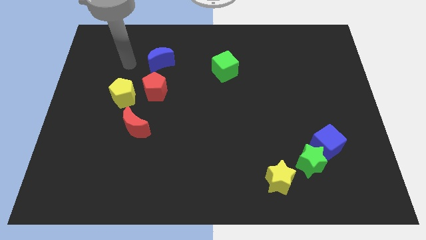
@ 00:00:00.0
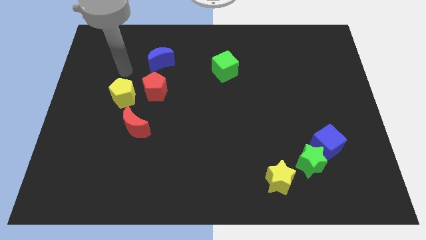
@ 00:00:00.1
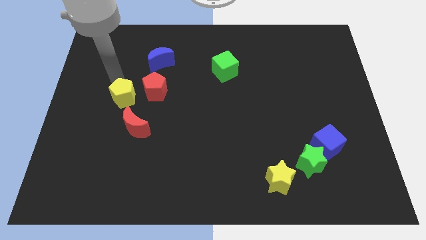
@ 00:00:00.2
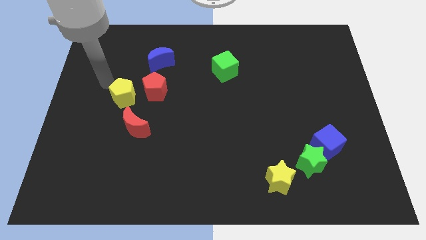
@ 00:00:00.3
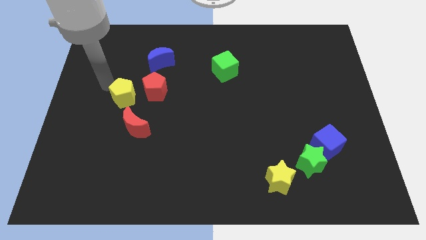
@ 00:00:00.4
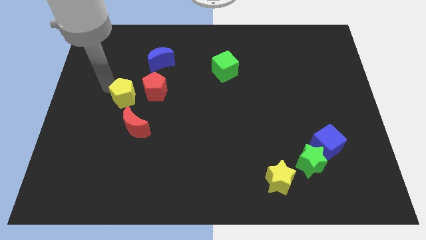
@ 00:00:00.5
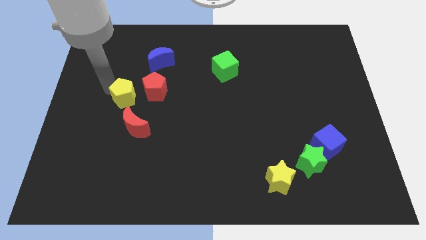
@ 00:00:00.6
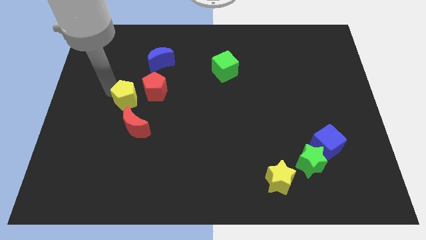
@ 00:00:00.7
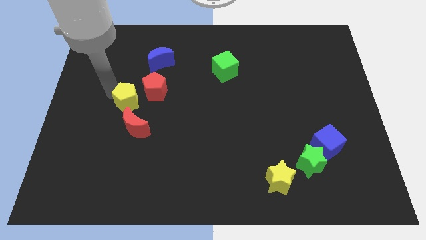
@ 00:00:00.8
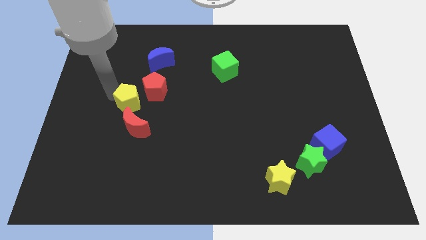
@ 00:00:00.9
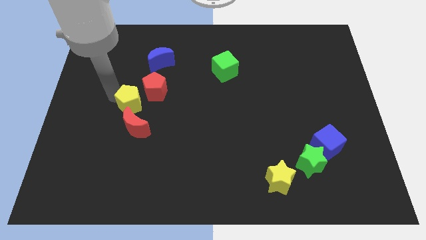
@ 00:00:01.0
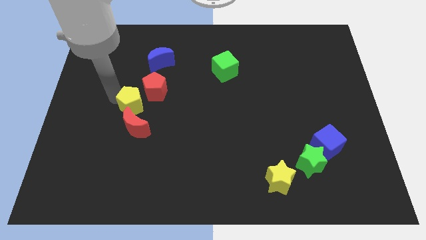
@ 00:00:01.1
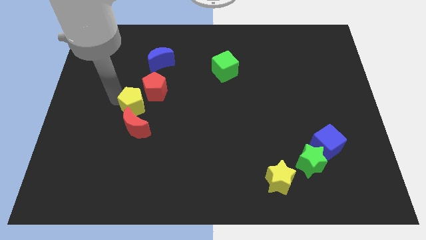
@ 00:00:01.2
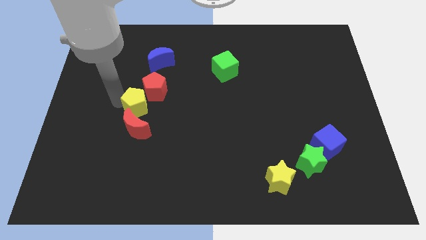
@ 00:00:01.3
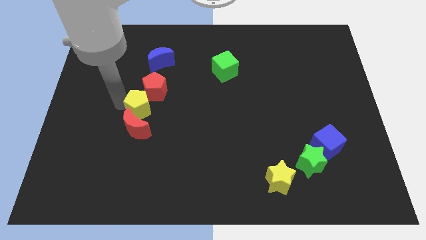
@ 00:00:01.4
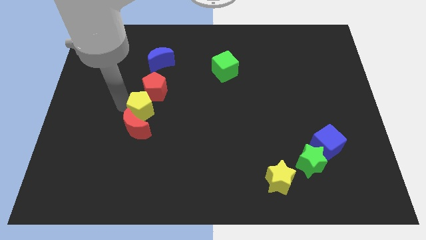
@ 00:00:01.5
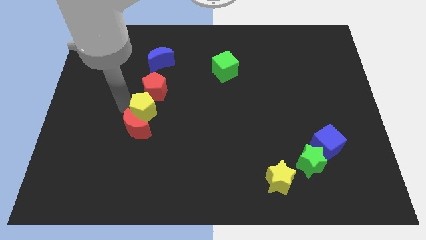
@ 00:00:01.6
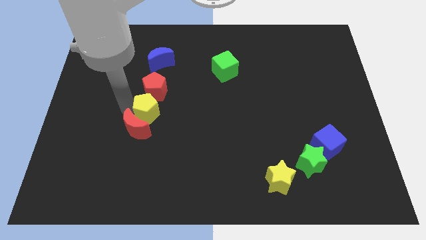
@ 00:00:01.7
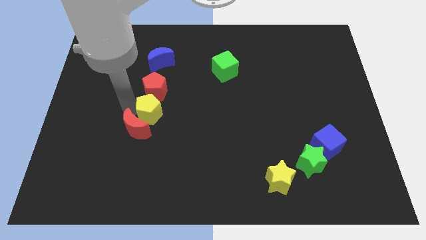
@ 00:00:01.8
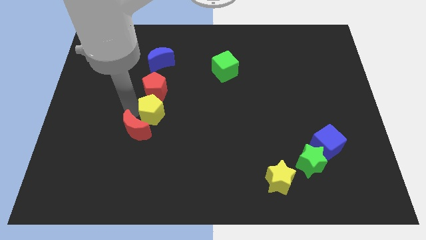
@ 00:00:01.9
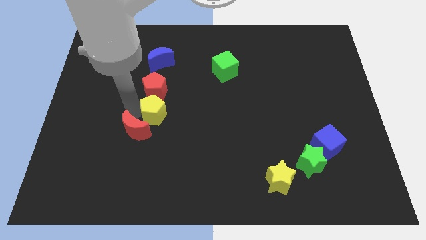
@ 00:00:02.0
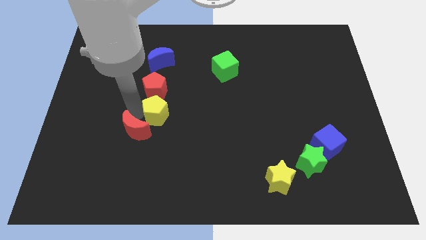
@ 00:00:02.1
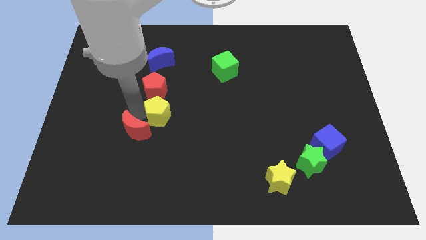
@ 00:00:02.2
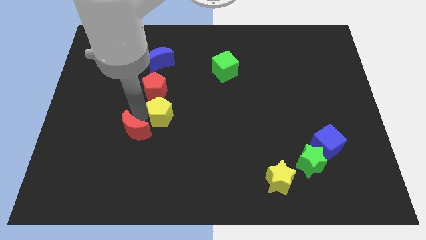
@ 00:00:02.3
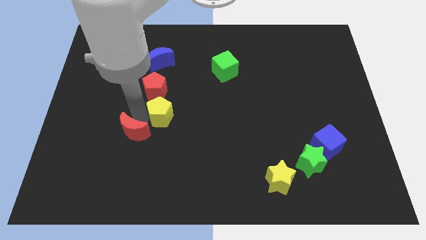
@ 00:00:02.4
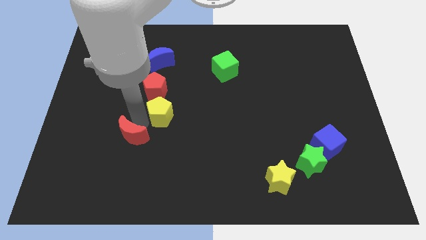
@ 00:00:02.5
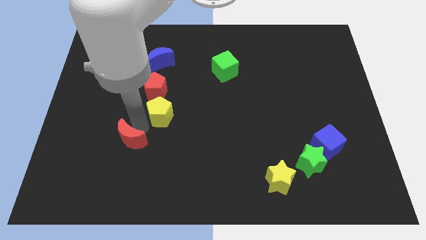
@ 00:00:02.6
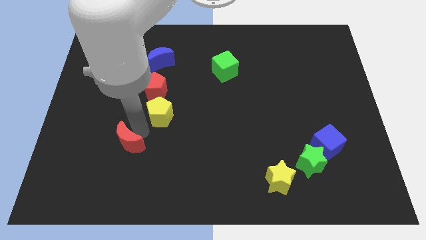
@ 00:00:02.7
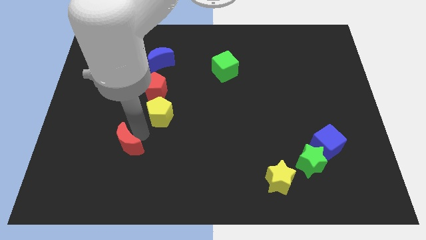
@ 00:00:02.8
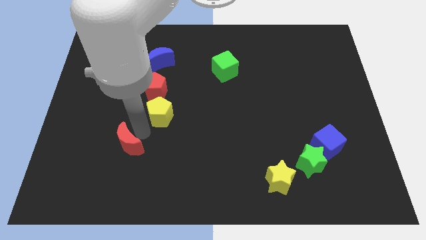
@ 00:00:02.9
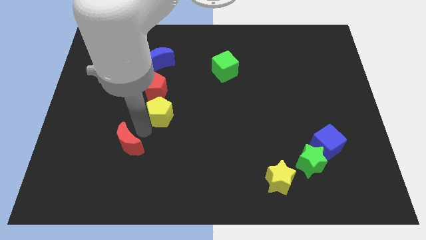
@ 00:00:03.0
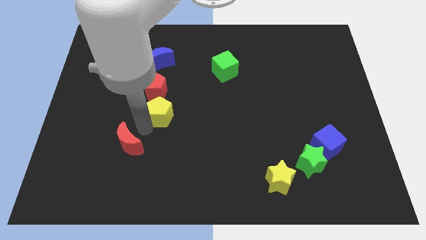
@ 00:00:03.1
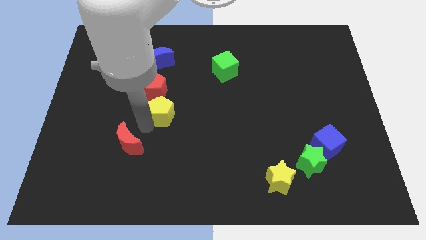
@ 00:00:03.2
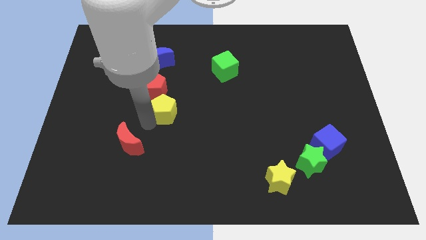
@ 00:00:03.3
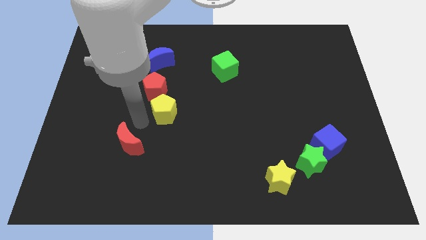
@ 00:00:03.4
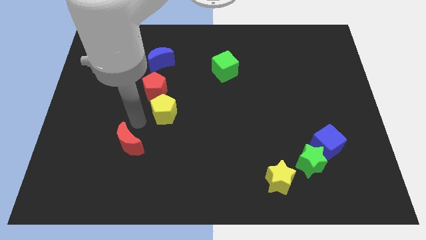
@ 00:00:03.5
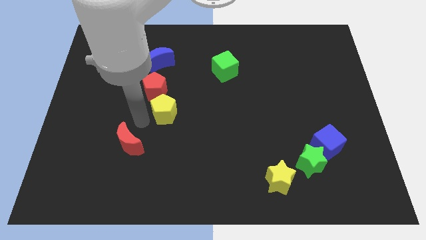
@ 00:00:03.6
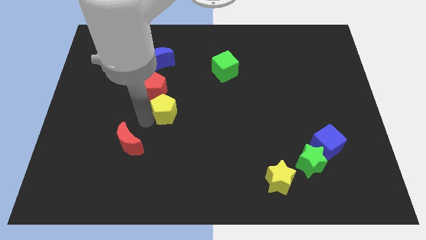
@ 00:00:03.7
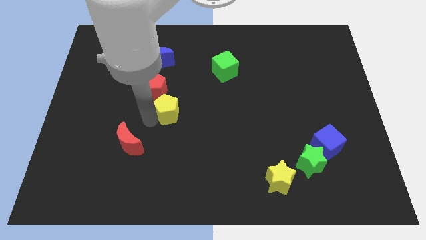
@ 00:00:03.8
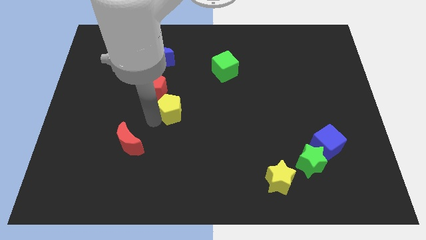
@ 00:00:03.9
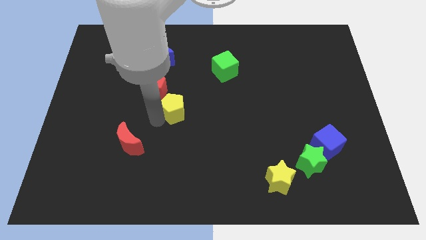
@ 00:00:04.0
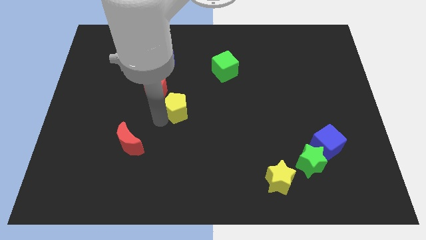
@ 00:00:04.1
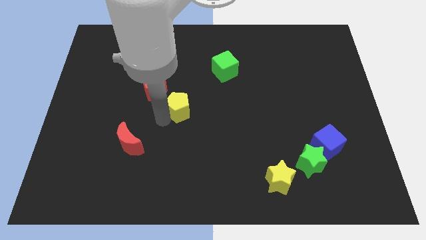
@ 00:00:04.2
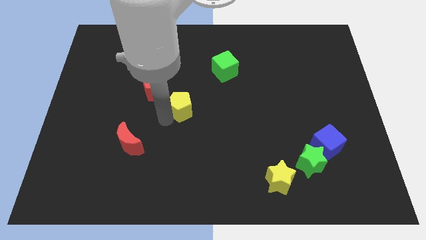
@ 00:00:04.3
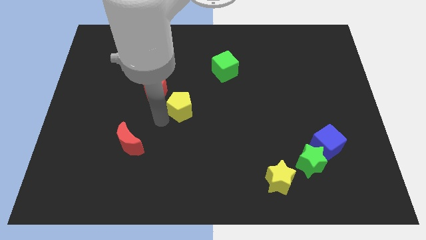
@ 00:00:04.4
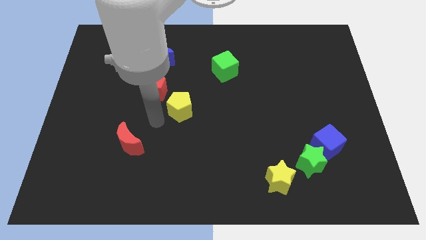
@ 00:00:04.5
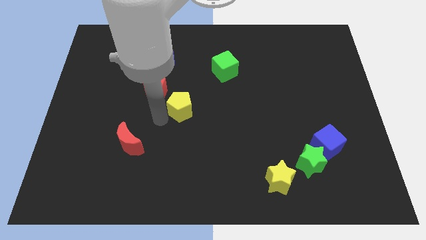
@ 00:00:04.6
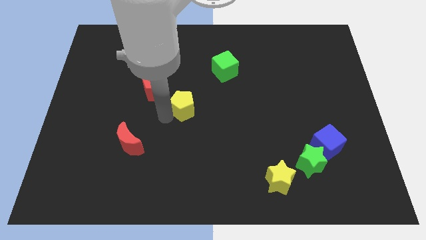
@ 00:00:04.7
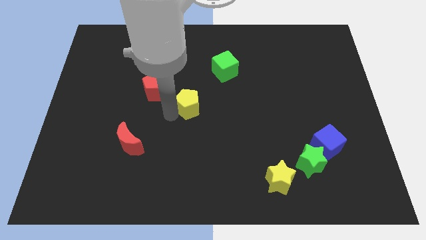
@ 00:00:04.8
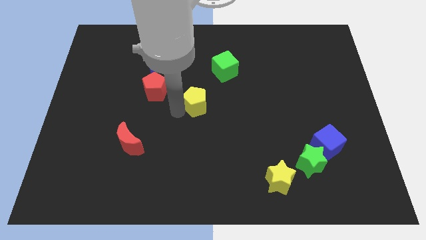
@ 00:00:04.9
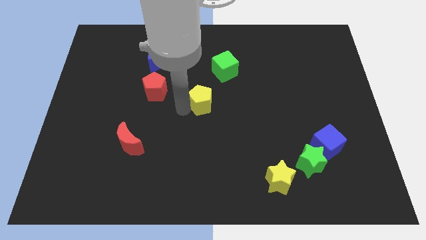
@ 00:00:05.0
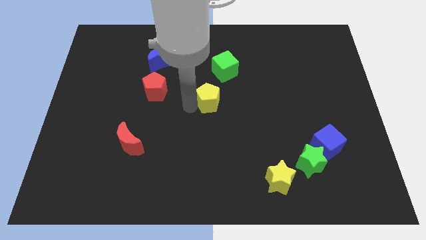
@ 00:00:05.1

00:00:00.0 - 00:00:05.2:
move the yellow pentagon to the right

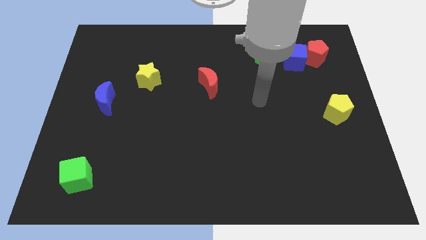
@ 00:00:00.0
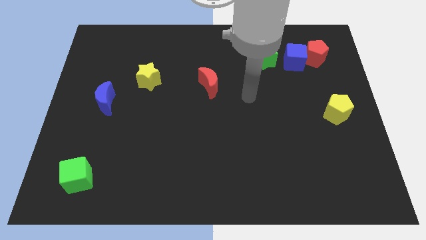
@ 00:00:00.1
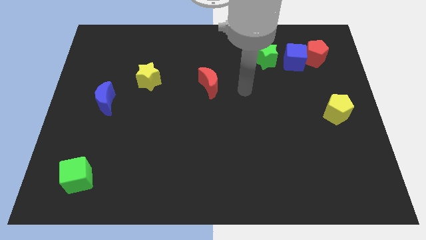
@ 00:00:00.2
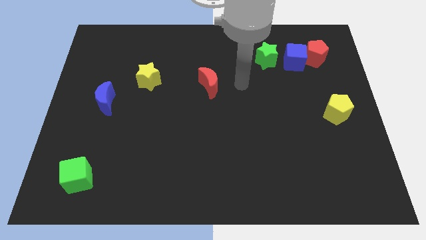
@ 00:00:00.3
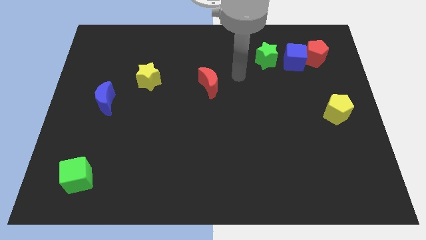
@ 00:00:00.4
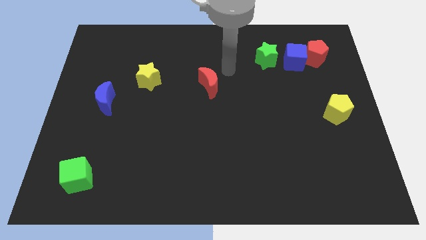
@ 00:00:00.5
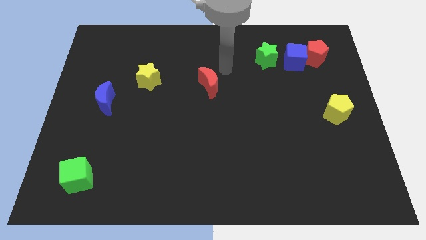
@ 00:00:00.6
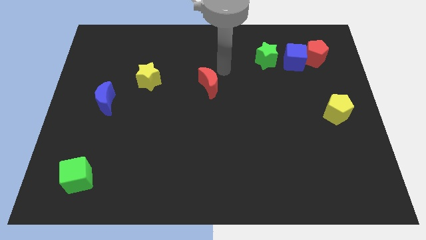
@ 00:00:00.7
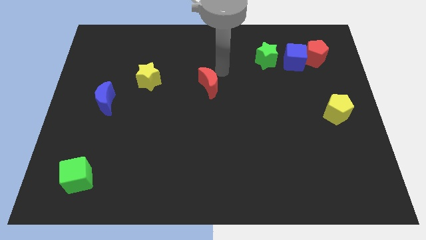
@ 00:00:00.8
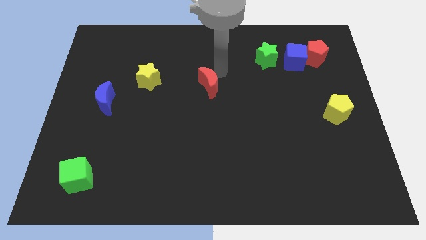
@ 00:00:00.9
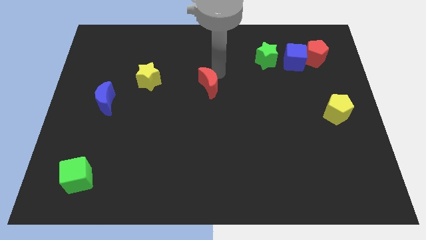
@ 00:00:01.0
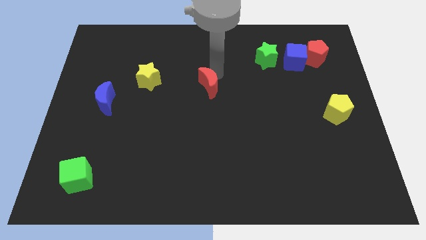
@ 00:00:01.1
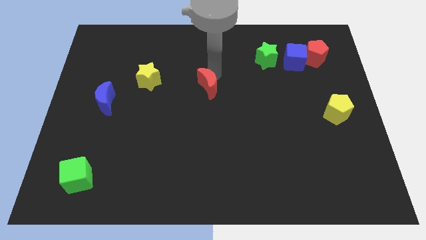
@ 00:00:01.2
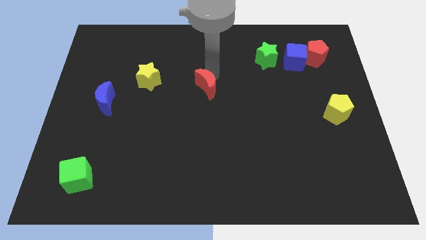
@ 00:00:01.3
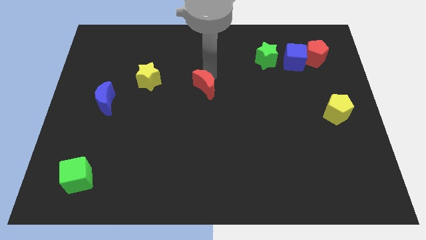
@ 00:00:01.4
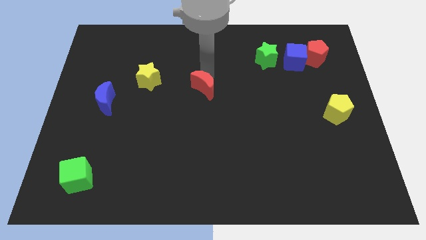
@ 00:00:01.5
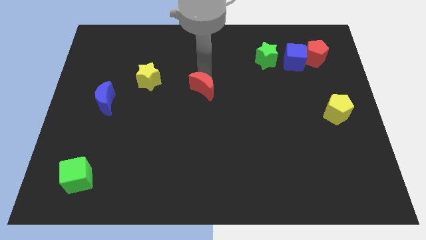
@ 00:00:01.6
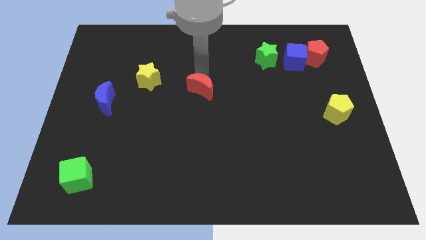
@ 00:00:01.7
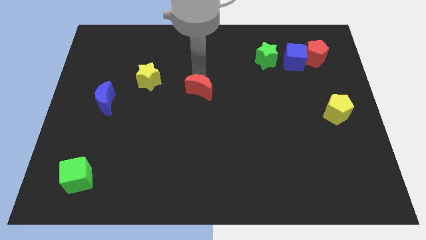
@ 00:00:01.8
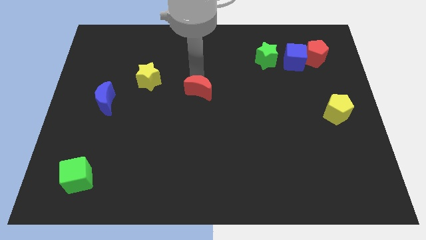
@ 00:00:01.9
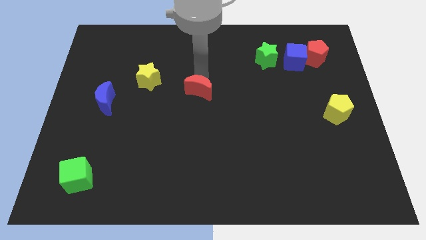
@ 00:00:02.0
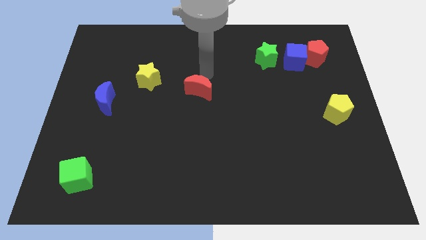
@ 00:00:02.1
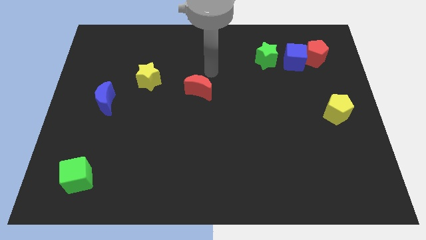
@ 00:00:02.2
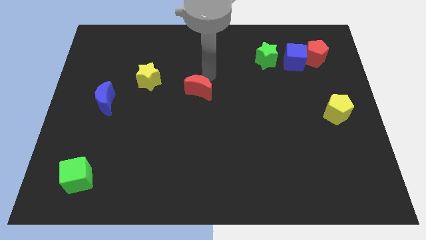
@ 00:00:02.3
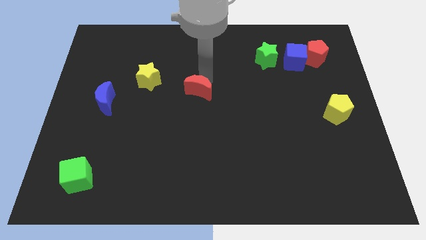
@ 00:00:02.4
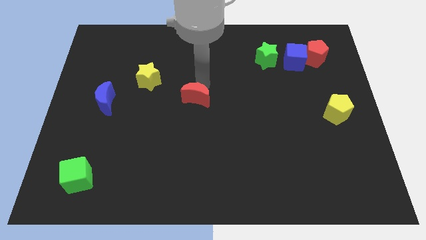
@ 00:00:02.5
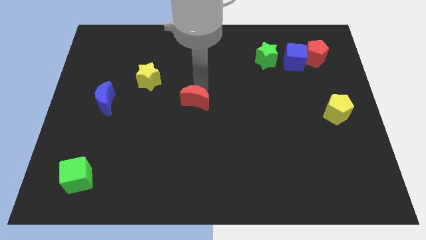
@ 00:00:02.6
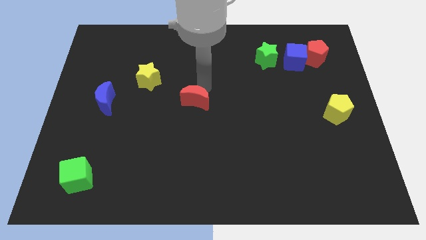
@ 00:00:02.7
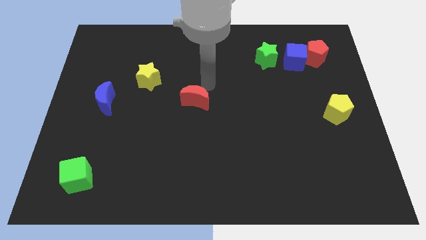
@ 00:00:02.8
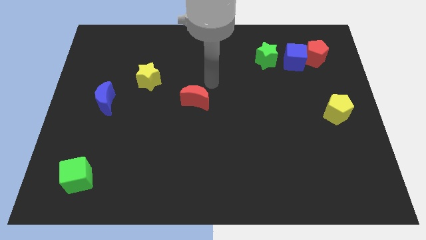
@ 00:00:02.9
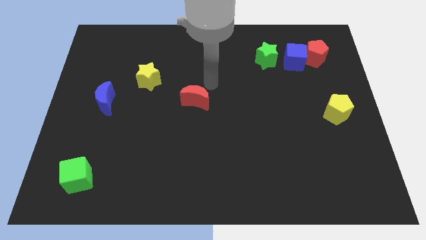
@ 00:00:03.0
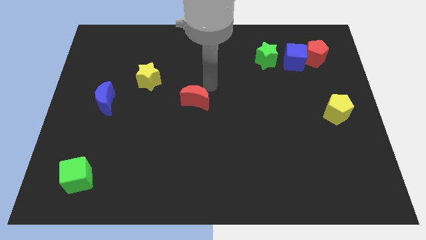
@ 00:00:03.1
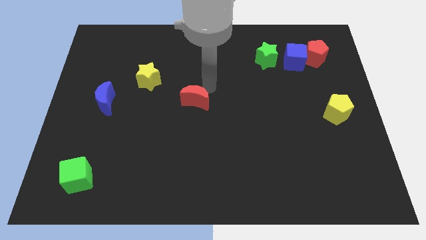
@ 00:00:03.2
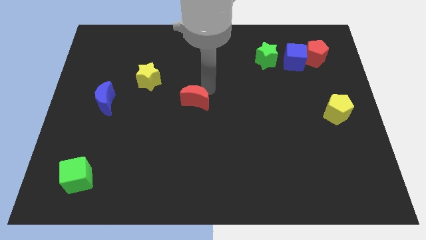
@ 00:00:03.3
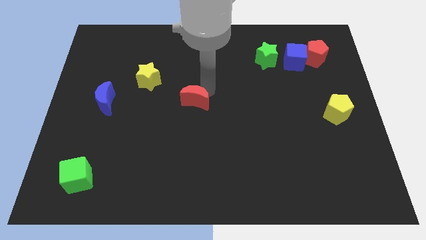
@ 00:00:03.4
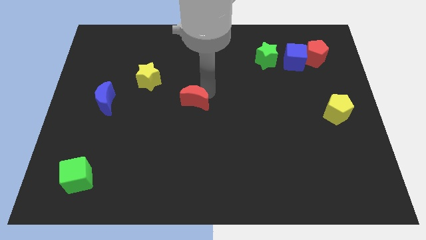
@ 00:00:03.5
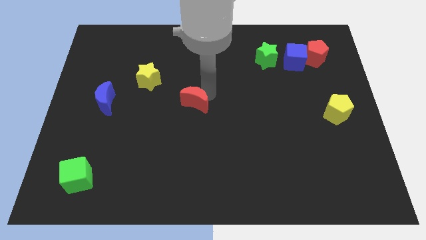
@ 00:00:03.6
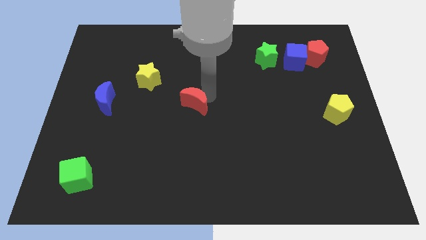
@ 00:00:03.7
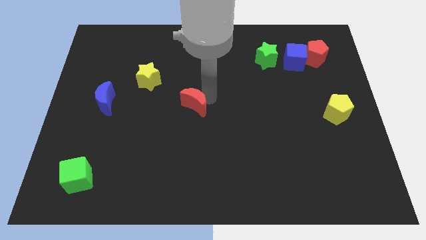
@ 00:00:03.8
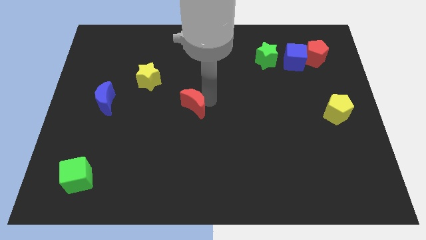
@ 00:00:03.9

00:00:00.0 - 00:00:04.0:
push the red moon diagonally downwards and left a little bit
